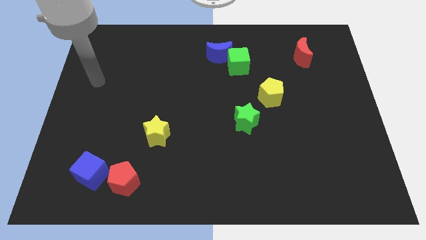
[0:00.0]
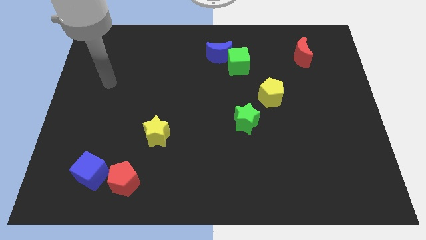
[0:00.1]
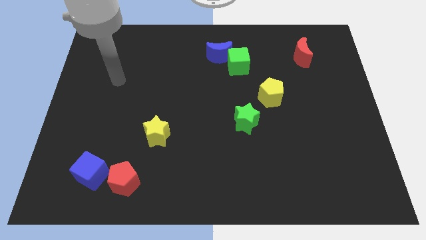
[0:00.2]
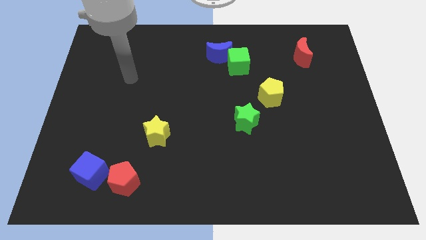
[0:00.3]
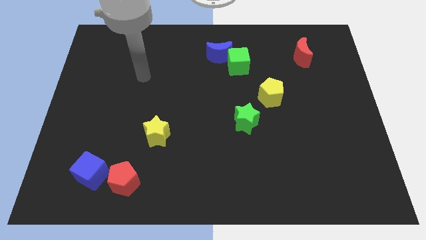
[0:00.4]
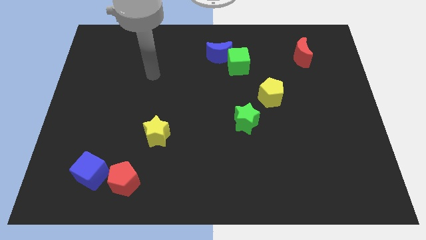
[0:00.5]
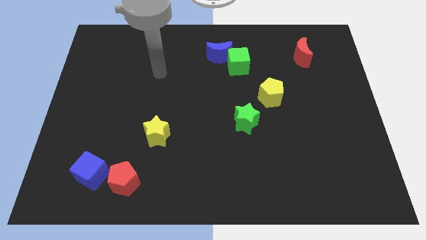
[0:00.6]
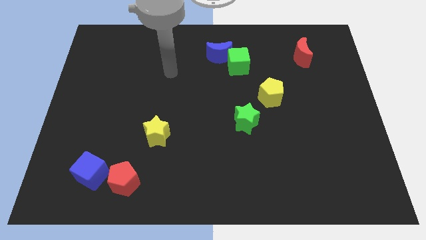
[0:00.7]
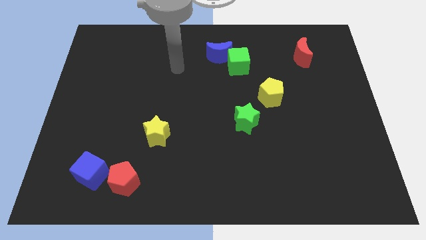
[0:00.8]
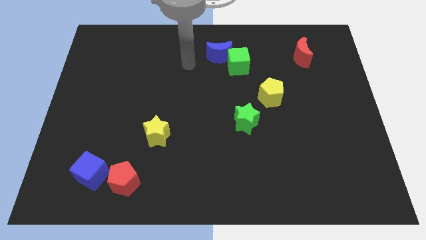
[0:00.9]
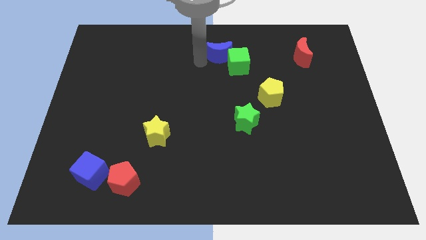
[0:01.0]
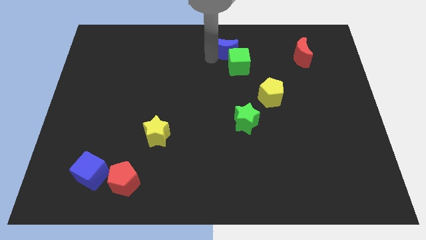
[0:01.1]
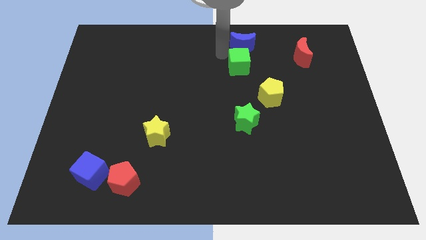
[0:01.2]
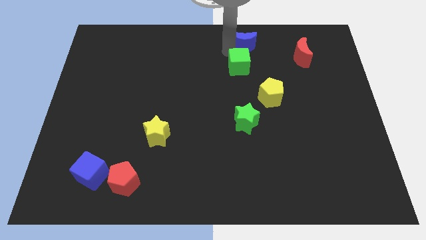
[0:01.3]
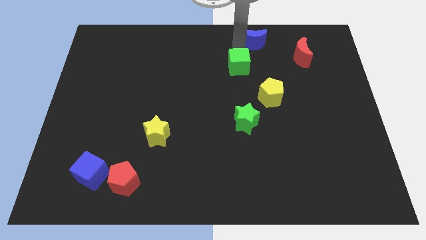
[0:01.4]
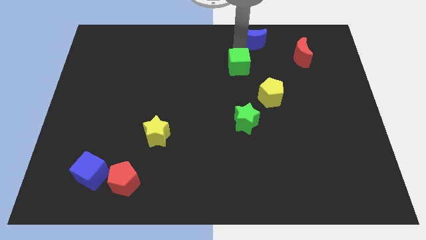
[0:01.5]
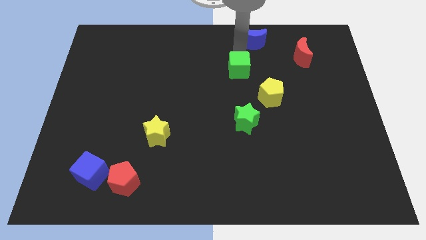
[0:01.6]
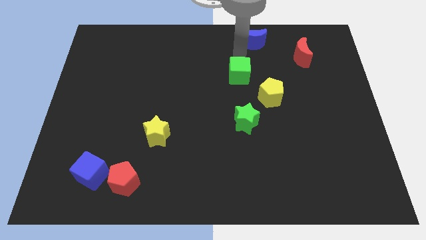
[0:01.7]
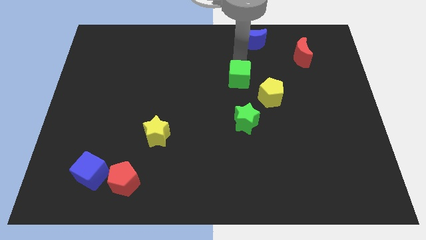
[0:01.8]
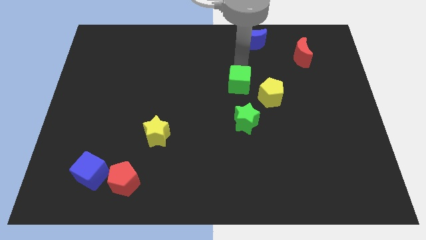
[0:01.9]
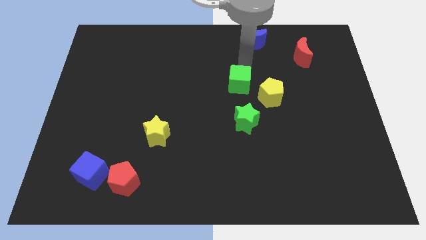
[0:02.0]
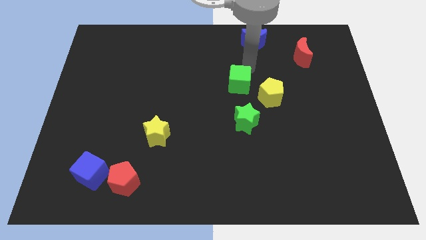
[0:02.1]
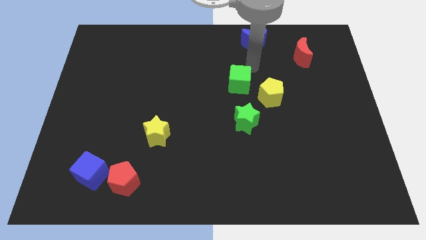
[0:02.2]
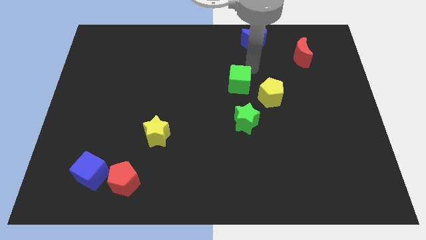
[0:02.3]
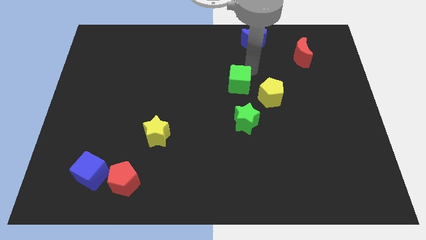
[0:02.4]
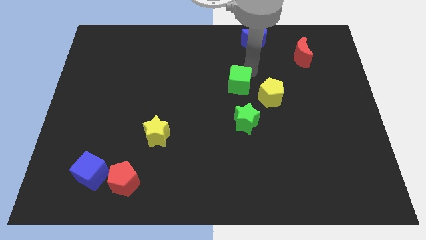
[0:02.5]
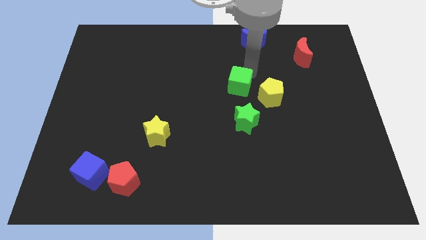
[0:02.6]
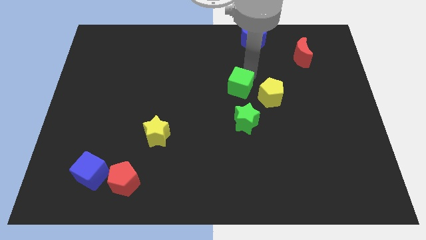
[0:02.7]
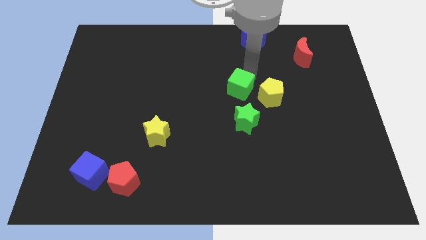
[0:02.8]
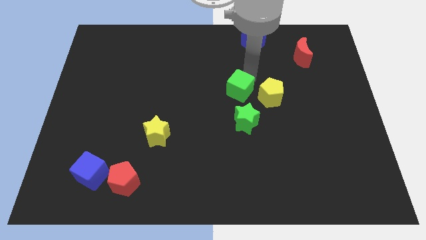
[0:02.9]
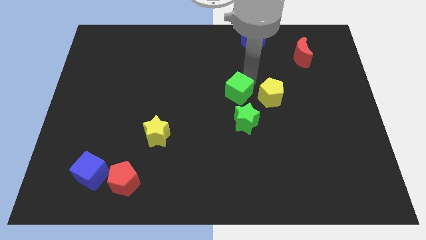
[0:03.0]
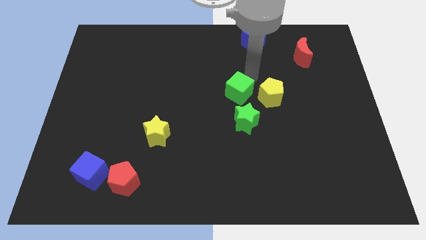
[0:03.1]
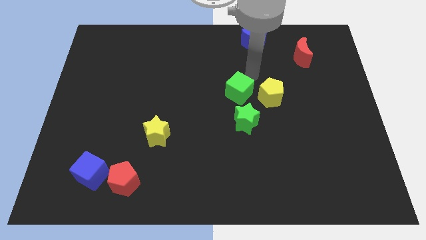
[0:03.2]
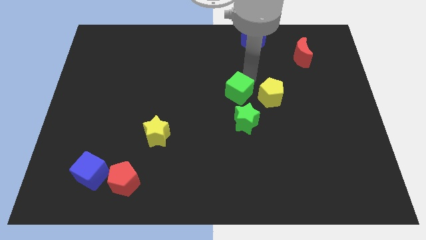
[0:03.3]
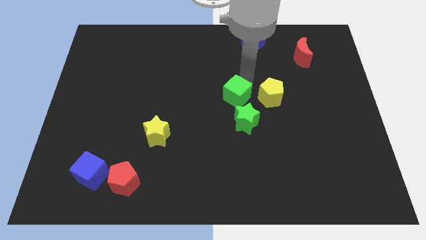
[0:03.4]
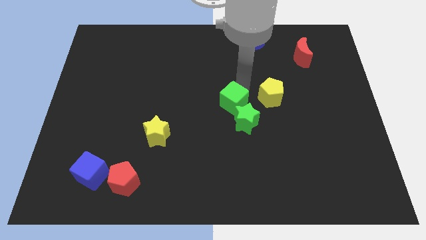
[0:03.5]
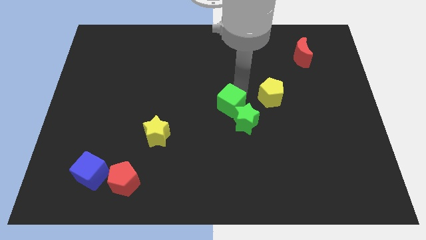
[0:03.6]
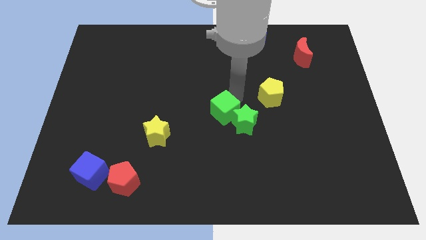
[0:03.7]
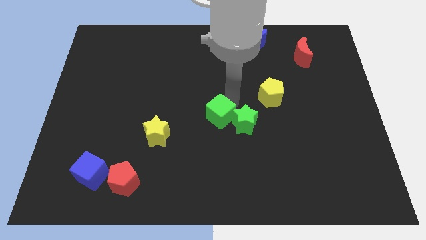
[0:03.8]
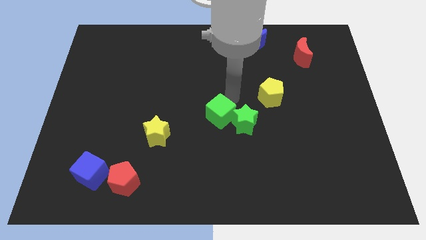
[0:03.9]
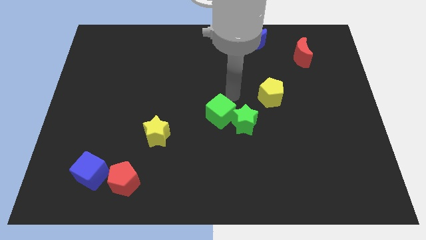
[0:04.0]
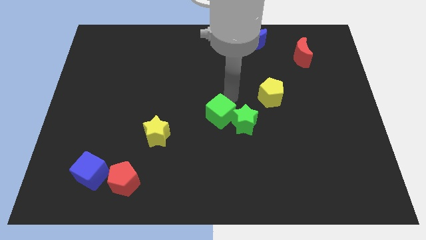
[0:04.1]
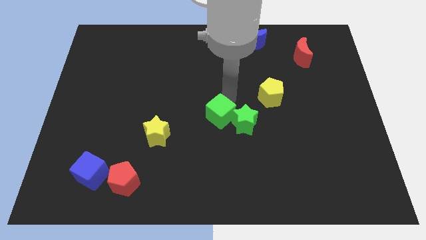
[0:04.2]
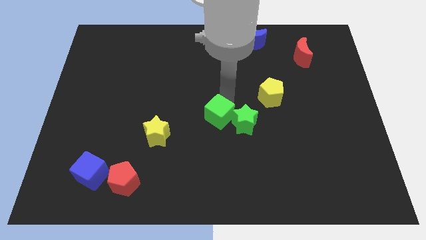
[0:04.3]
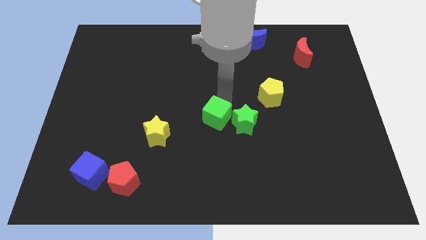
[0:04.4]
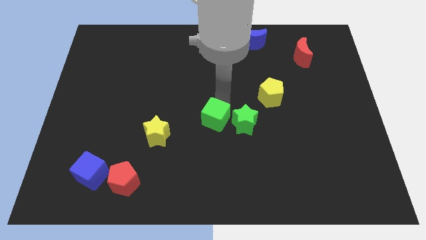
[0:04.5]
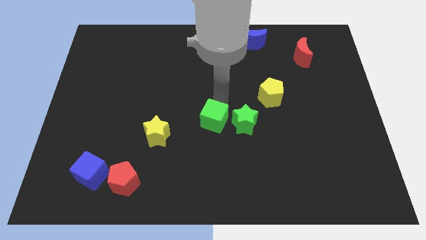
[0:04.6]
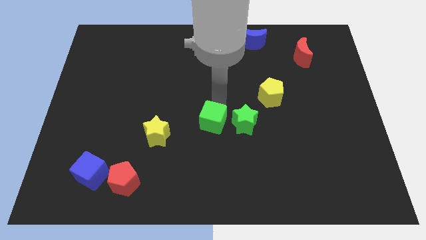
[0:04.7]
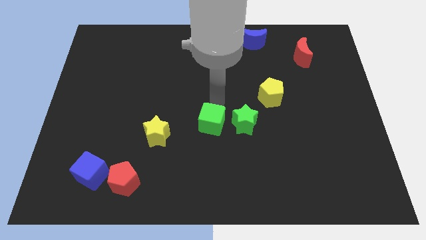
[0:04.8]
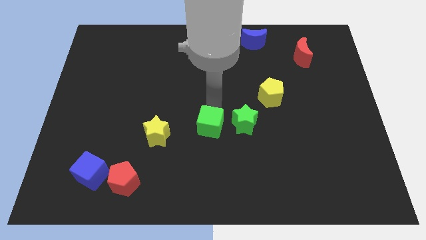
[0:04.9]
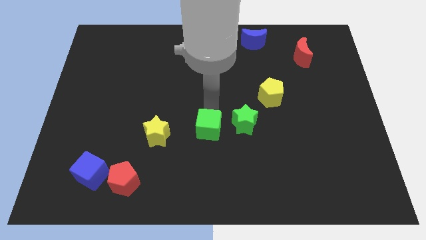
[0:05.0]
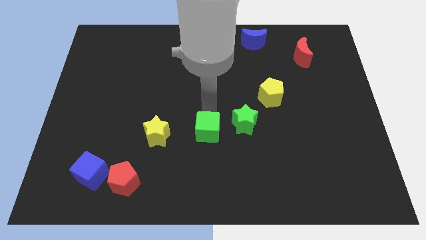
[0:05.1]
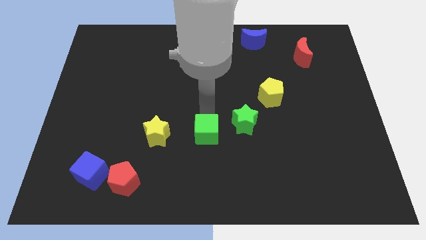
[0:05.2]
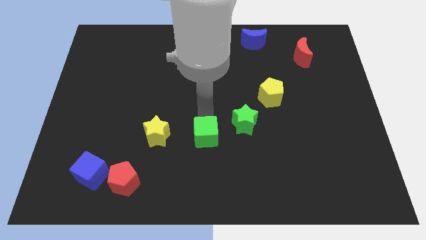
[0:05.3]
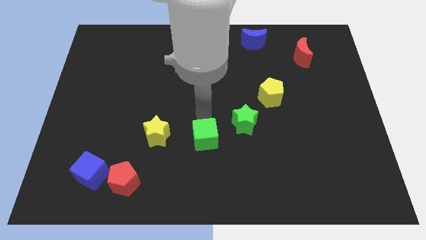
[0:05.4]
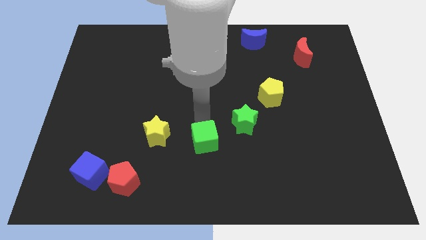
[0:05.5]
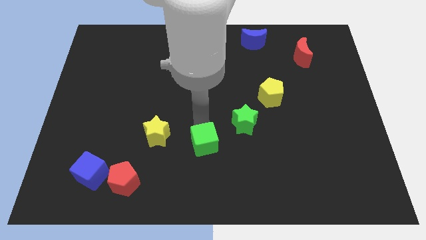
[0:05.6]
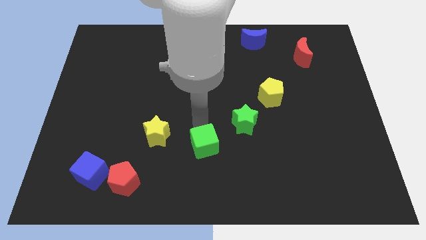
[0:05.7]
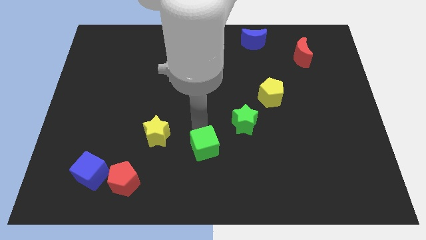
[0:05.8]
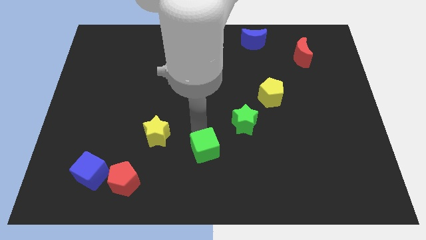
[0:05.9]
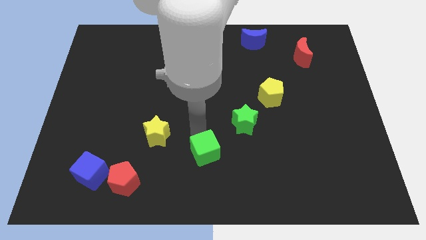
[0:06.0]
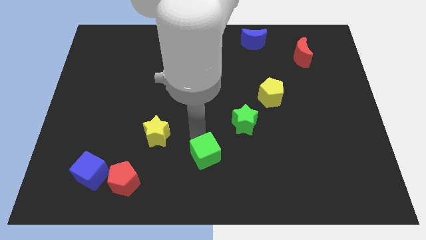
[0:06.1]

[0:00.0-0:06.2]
put the green cube to the bottom

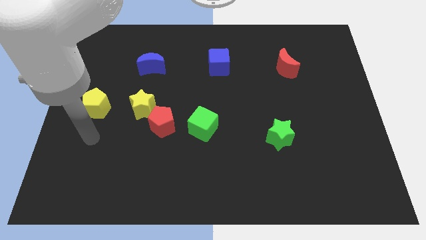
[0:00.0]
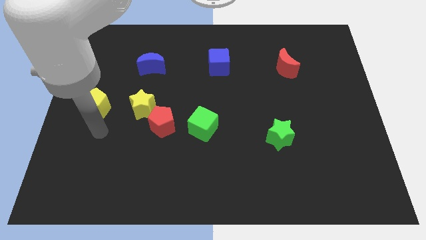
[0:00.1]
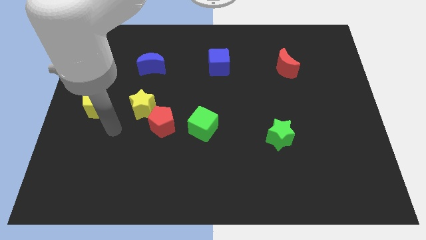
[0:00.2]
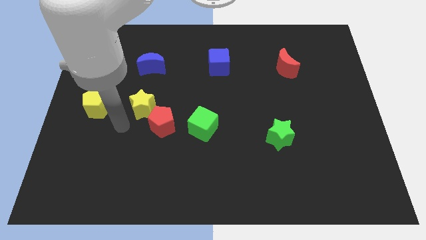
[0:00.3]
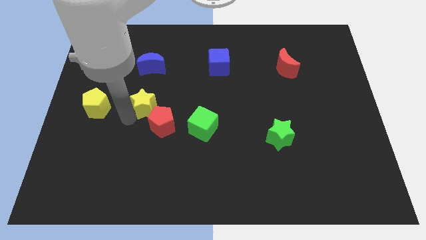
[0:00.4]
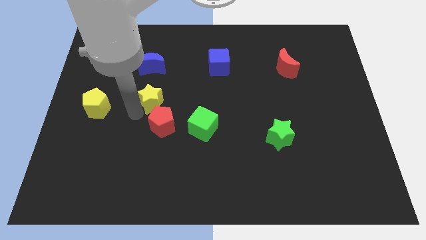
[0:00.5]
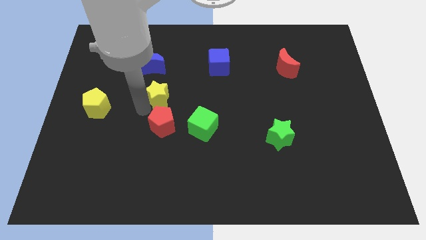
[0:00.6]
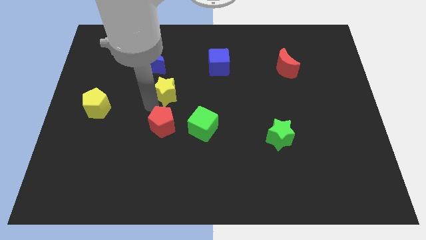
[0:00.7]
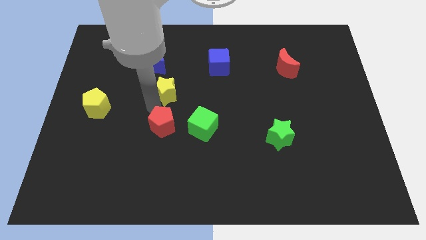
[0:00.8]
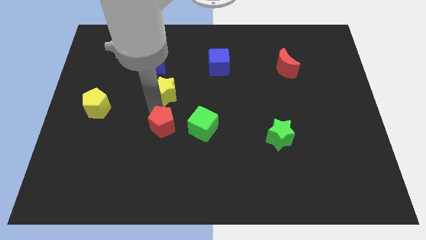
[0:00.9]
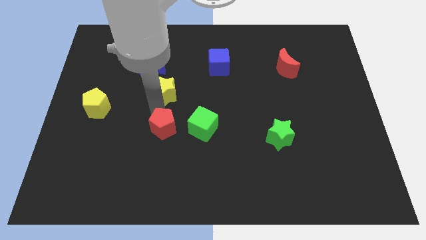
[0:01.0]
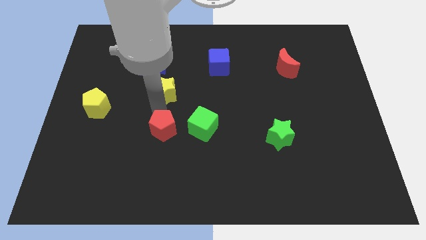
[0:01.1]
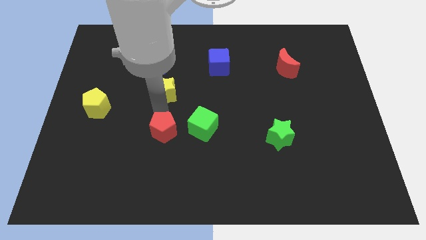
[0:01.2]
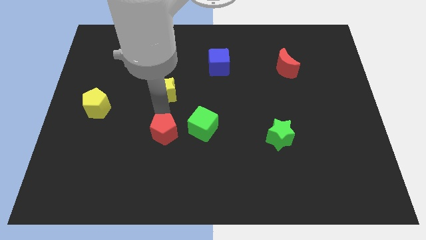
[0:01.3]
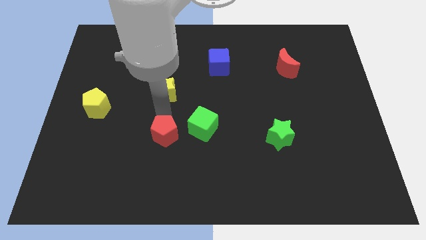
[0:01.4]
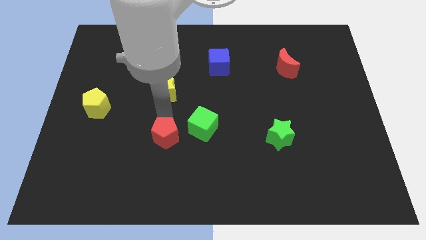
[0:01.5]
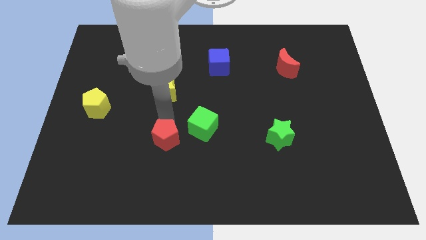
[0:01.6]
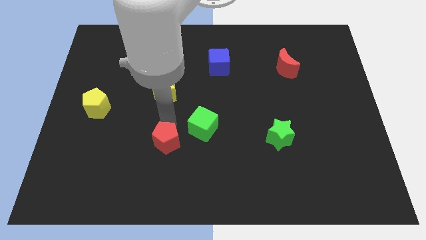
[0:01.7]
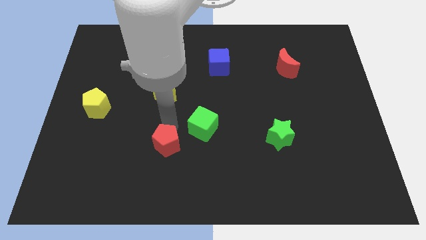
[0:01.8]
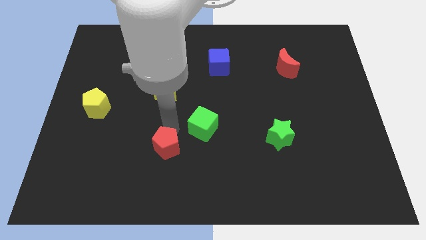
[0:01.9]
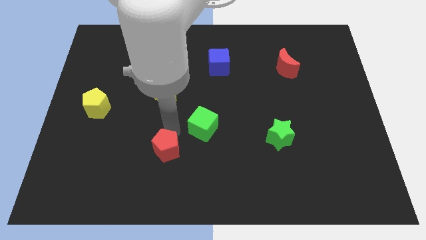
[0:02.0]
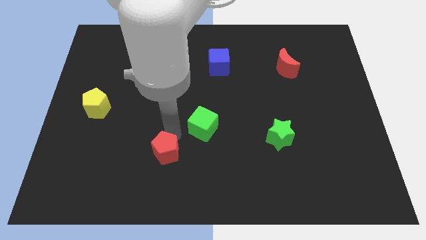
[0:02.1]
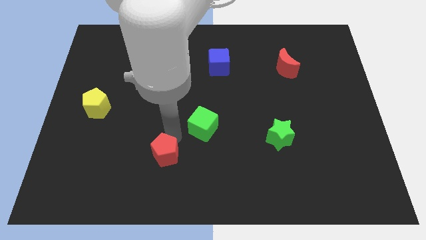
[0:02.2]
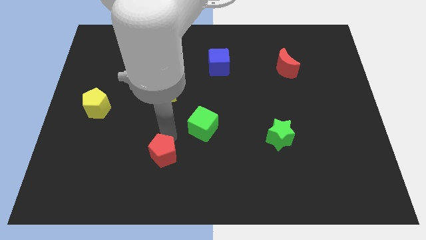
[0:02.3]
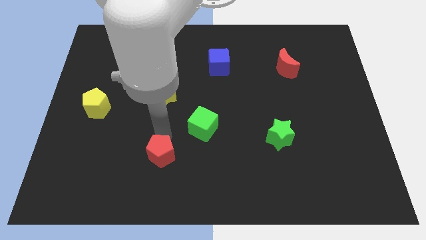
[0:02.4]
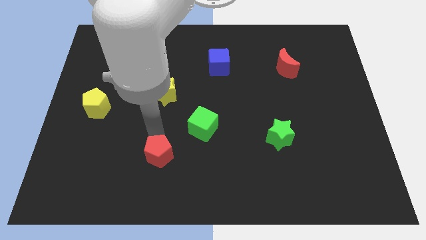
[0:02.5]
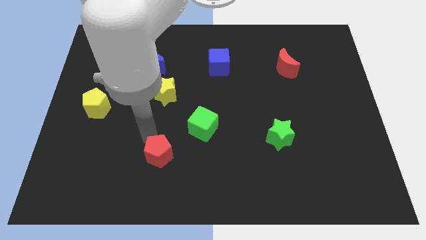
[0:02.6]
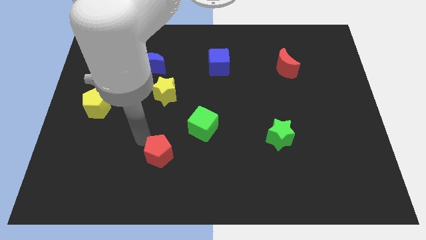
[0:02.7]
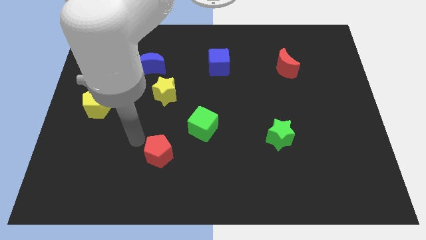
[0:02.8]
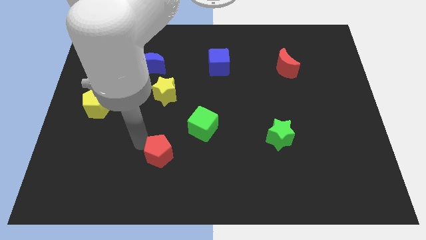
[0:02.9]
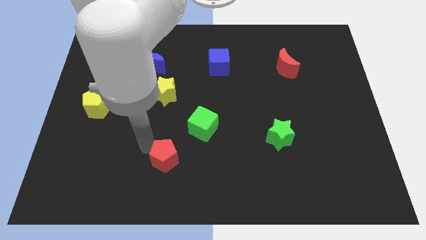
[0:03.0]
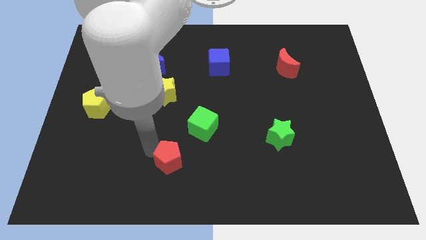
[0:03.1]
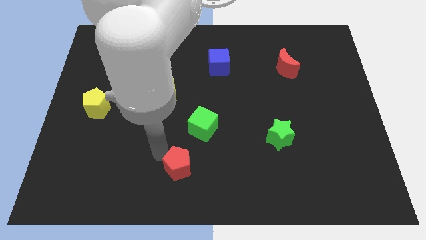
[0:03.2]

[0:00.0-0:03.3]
put the red pentagon to the bottom
